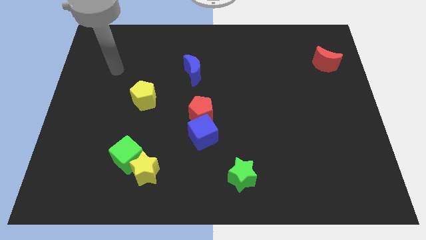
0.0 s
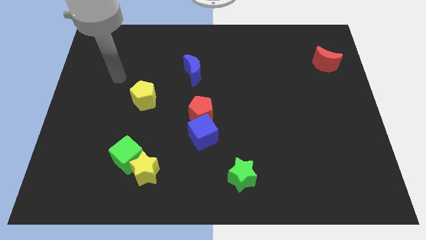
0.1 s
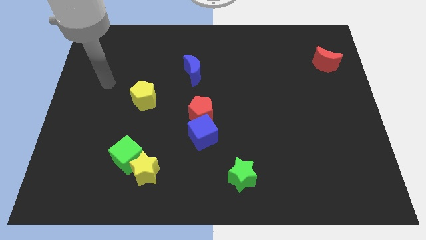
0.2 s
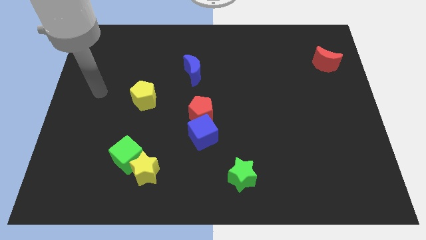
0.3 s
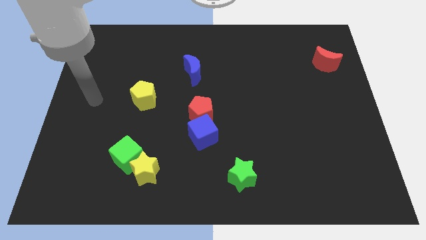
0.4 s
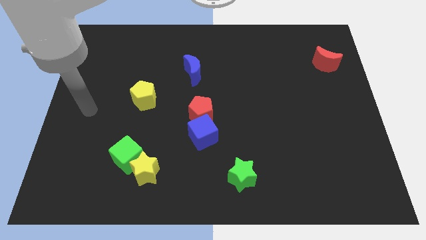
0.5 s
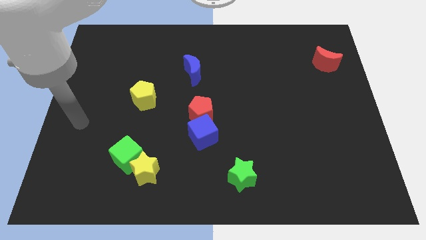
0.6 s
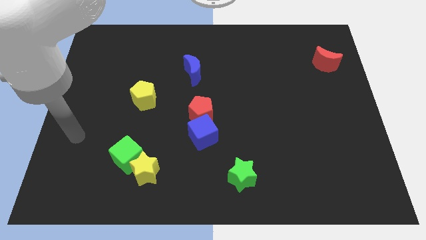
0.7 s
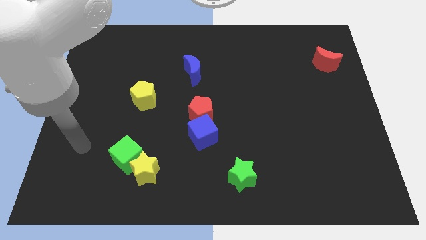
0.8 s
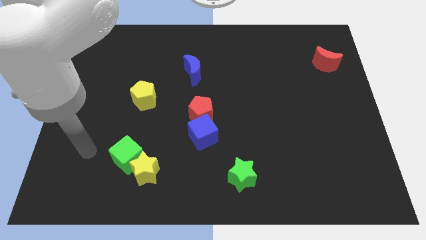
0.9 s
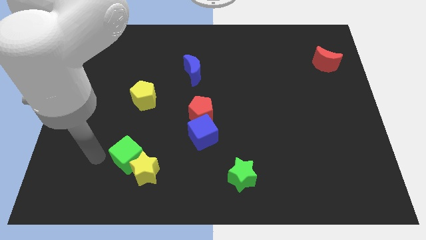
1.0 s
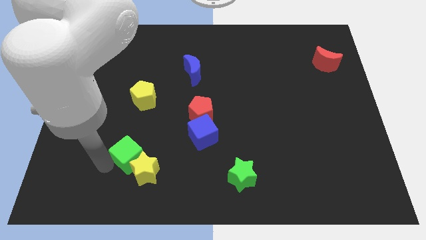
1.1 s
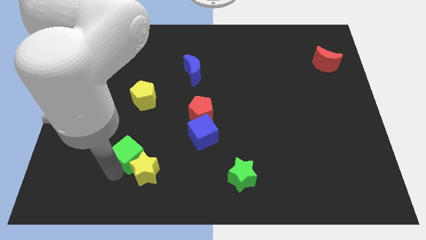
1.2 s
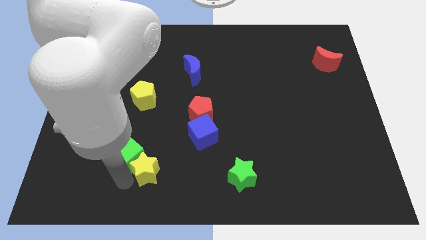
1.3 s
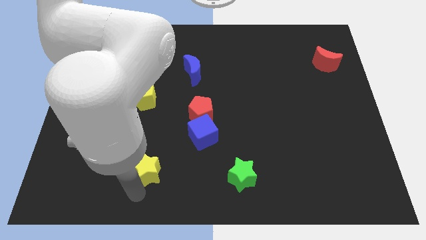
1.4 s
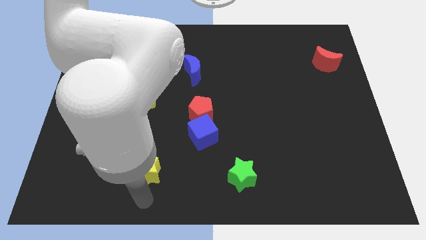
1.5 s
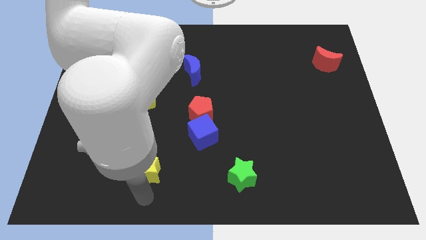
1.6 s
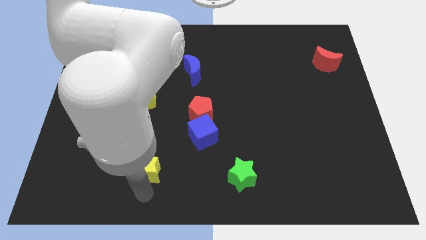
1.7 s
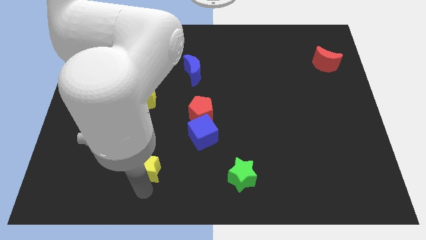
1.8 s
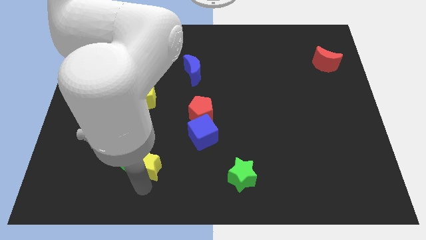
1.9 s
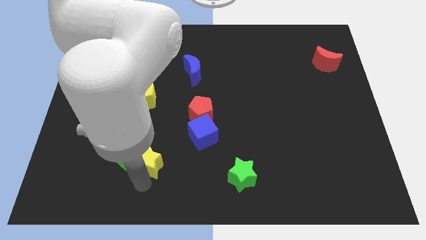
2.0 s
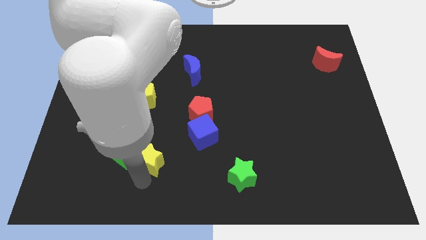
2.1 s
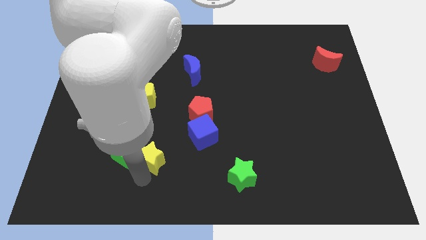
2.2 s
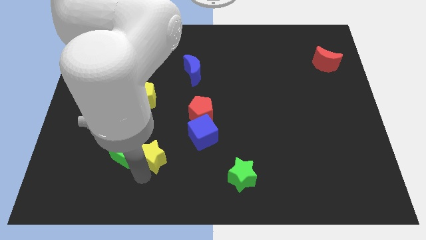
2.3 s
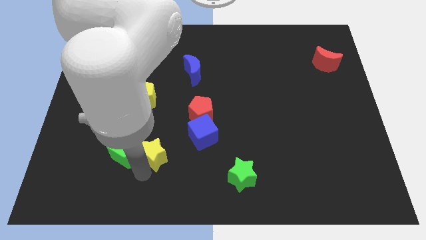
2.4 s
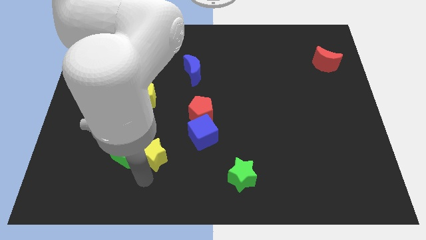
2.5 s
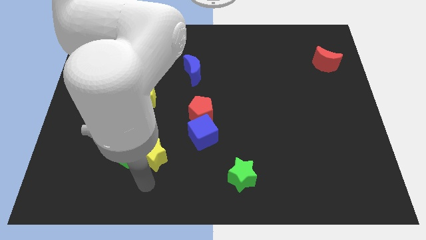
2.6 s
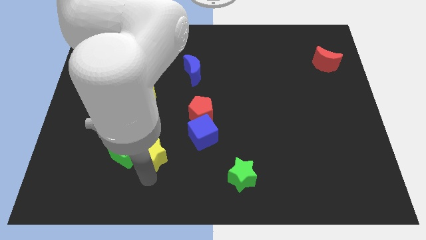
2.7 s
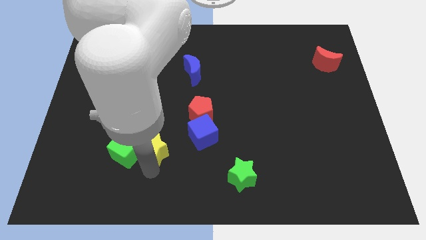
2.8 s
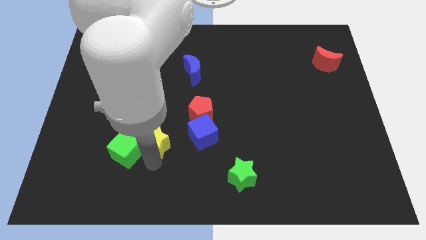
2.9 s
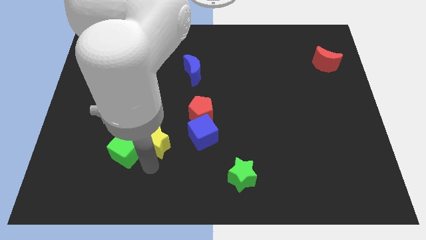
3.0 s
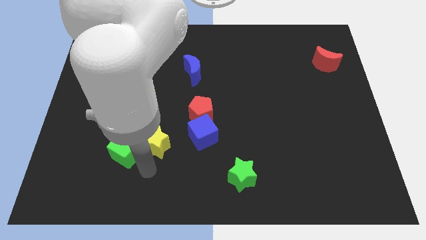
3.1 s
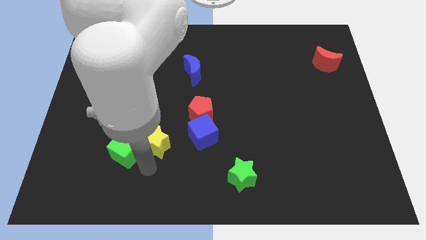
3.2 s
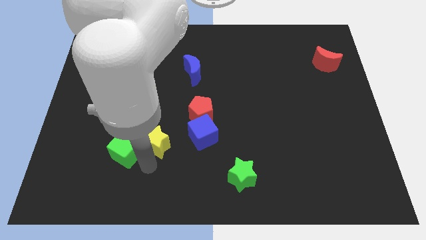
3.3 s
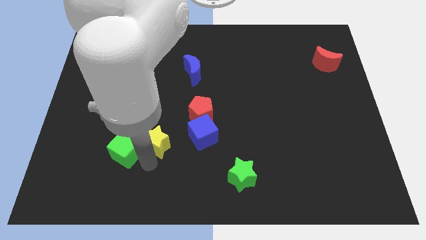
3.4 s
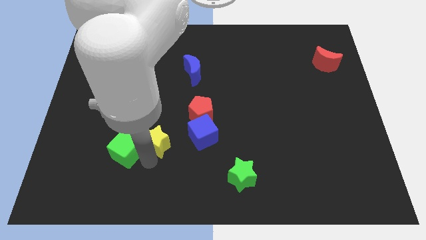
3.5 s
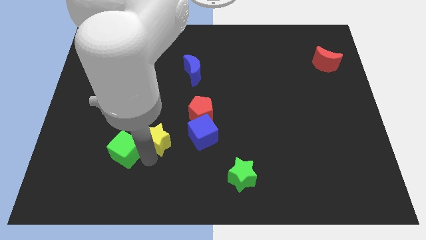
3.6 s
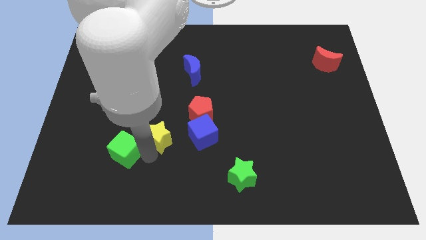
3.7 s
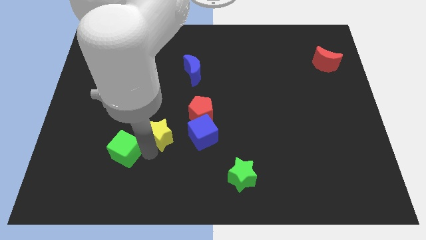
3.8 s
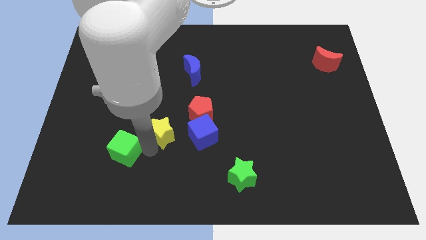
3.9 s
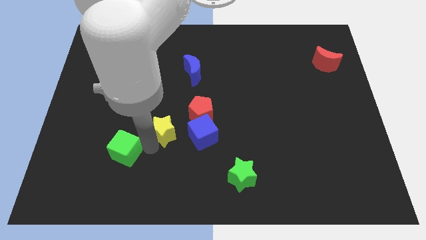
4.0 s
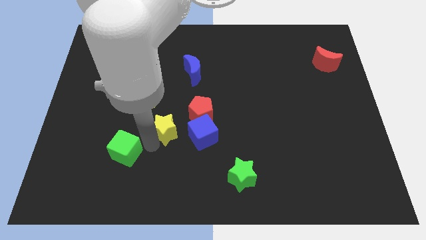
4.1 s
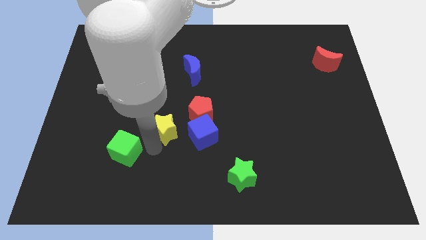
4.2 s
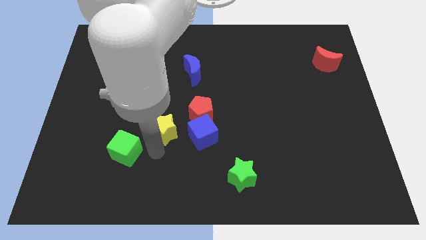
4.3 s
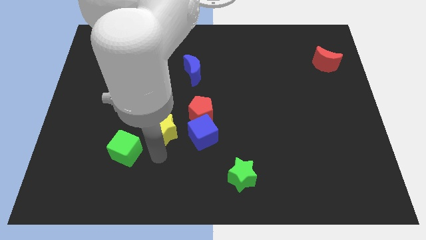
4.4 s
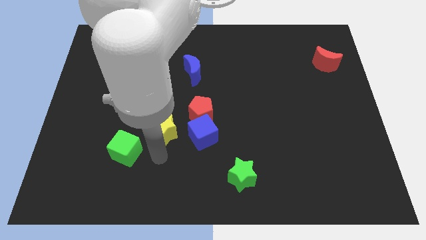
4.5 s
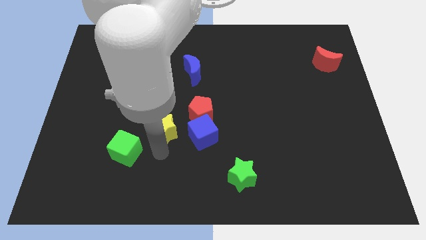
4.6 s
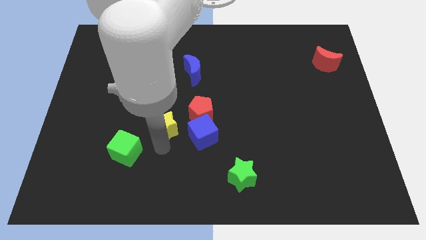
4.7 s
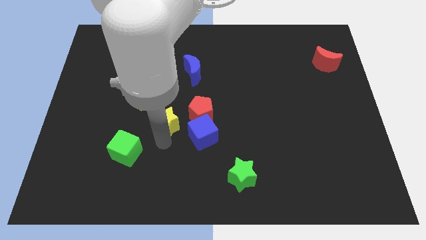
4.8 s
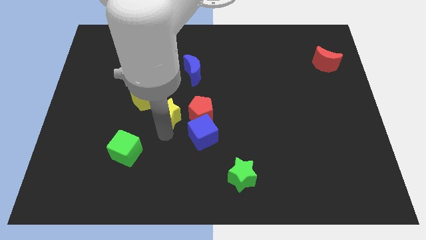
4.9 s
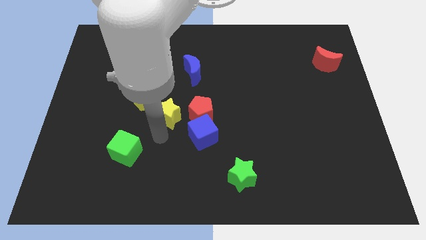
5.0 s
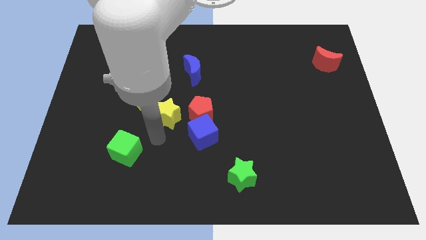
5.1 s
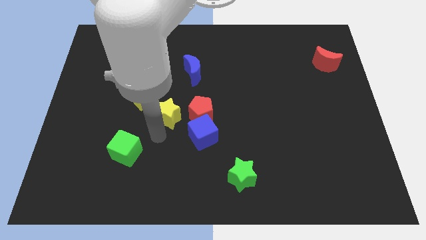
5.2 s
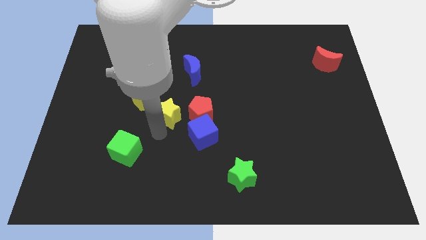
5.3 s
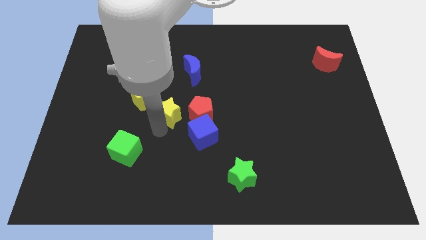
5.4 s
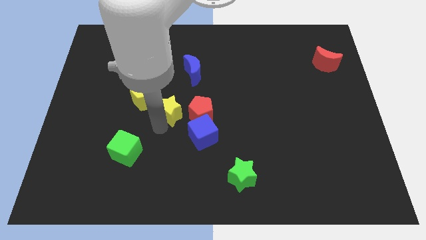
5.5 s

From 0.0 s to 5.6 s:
slide the yellow star diagonally up and to the left of the red pentagon

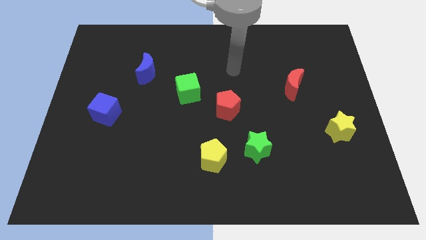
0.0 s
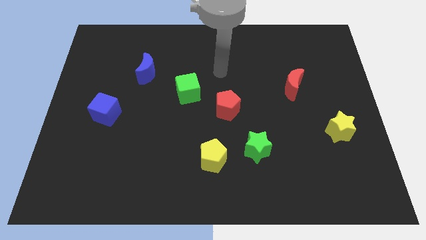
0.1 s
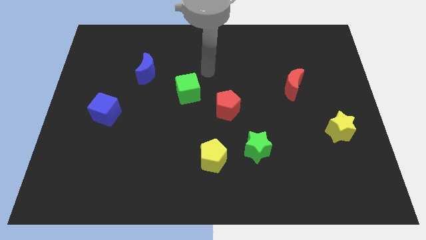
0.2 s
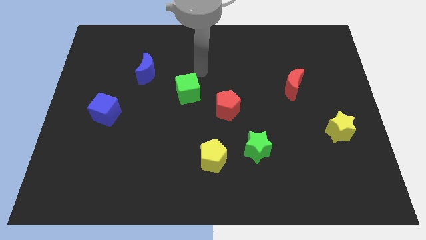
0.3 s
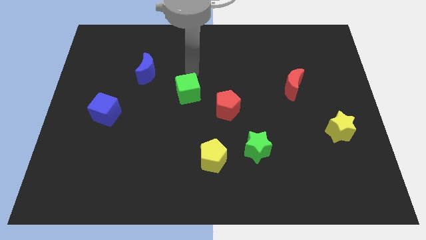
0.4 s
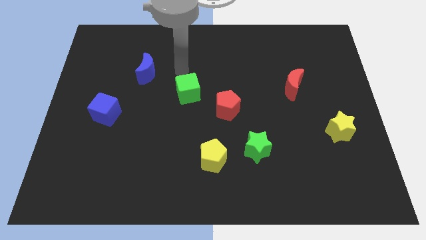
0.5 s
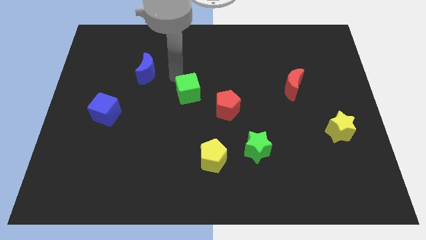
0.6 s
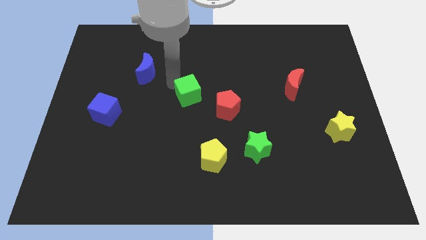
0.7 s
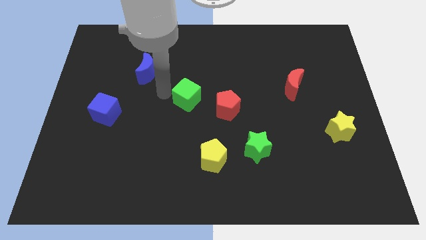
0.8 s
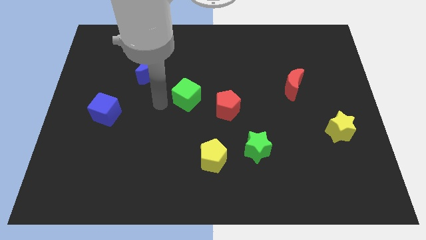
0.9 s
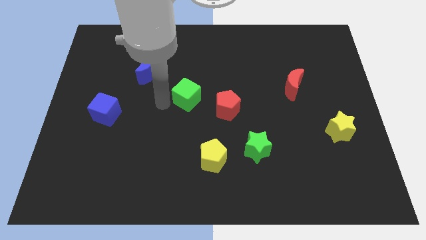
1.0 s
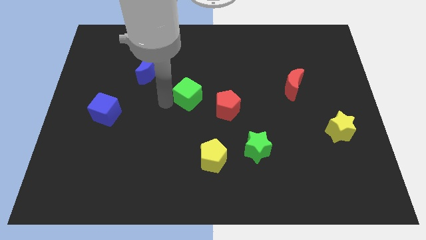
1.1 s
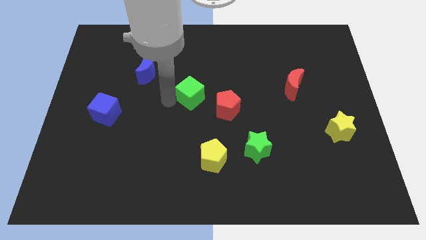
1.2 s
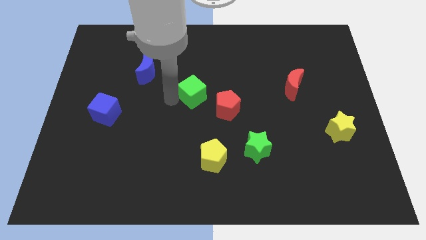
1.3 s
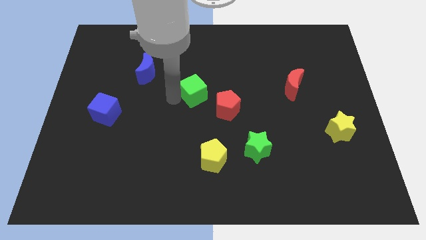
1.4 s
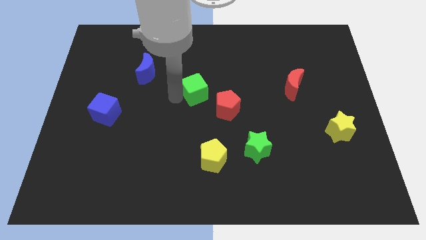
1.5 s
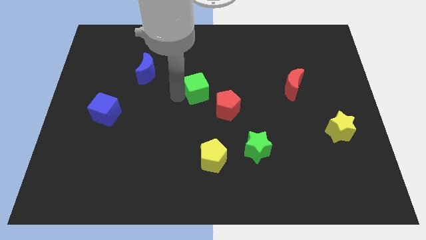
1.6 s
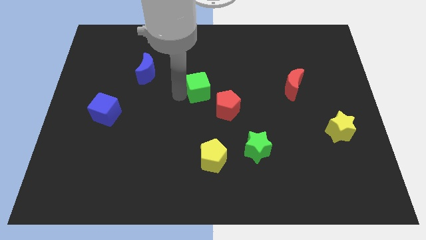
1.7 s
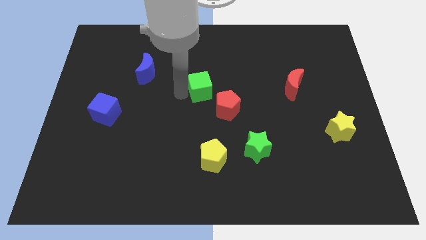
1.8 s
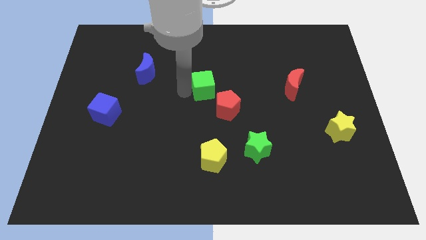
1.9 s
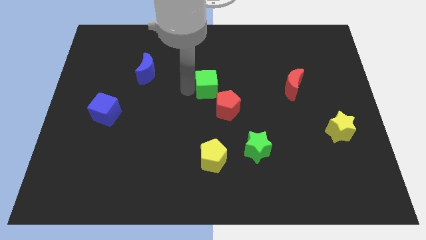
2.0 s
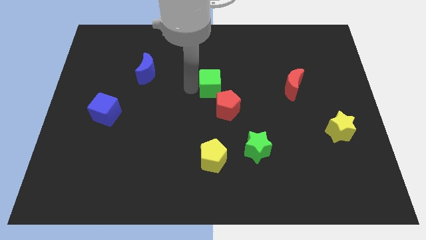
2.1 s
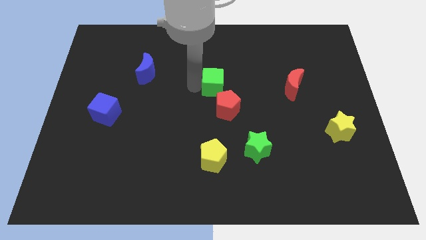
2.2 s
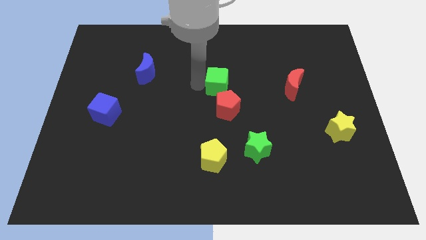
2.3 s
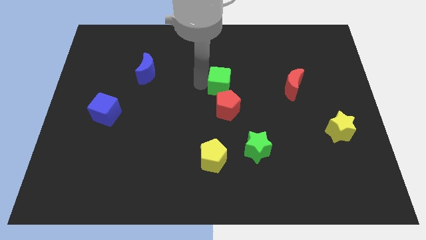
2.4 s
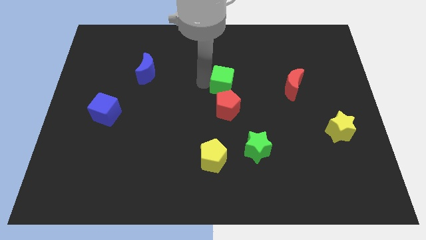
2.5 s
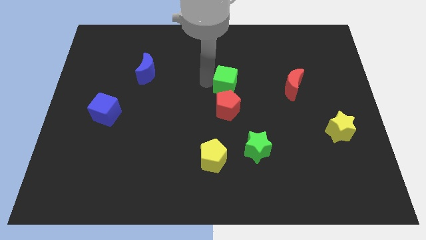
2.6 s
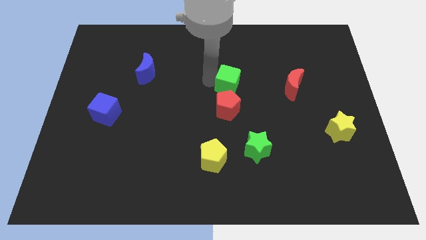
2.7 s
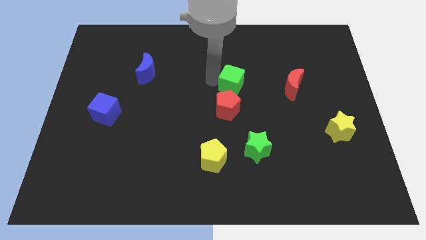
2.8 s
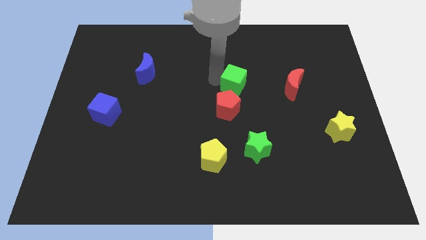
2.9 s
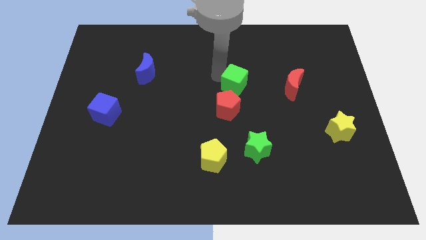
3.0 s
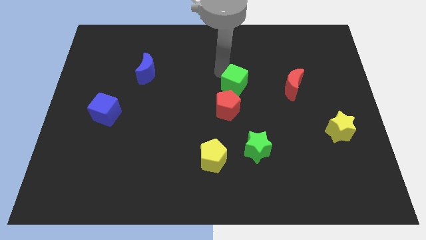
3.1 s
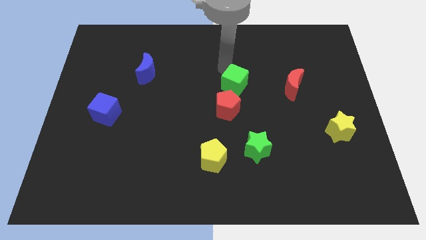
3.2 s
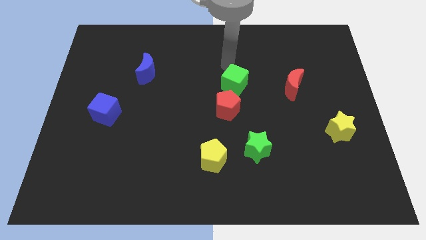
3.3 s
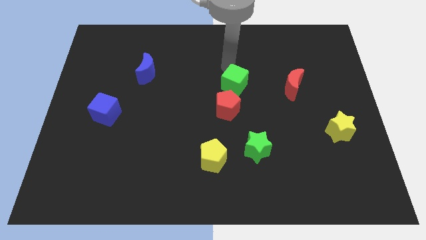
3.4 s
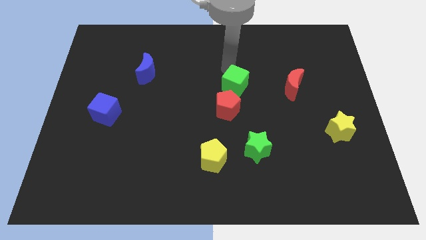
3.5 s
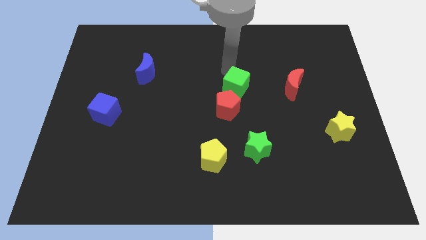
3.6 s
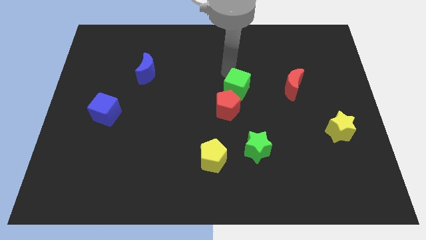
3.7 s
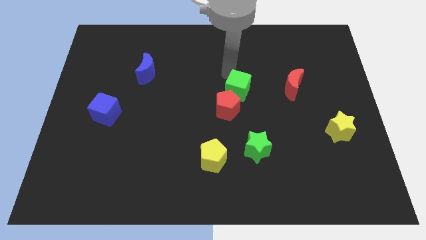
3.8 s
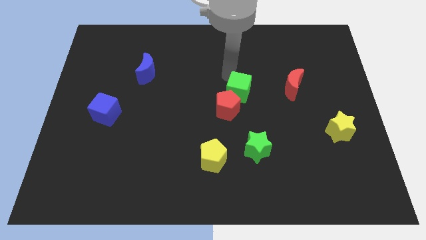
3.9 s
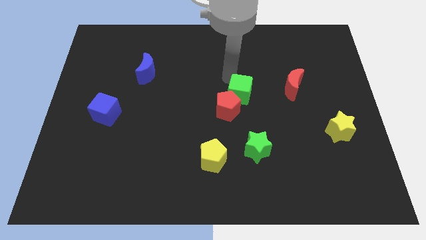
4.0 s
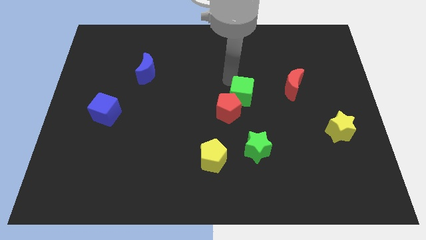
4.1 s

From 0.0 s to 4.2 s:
slide the green cube to the top side of the green star
